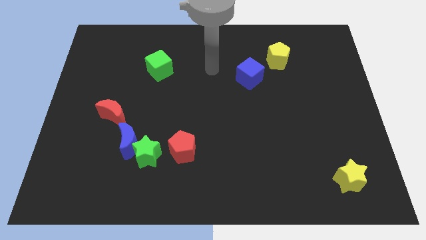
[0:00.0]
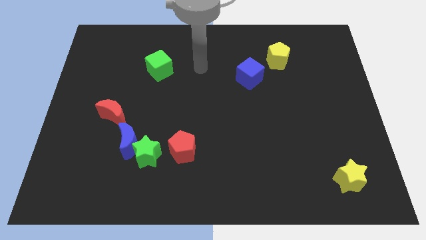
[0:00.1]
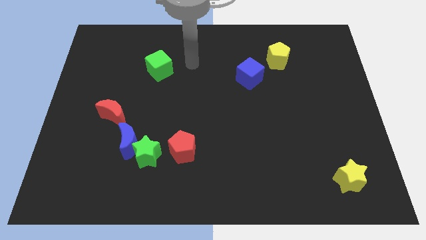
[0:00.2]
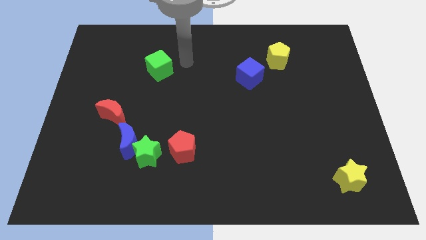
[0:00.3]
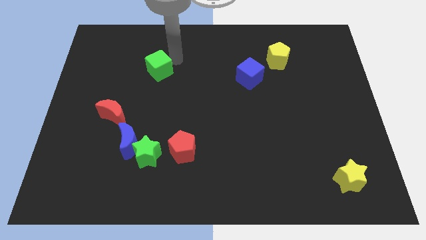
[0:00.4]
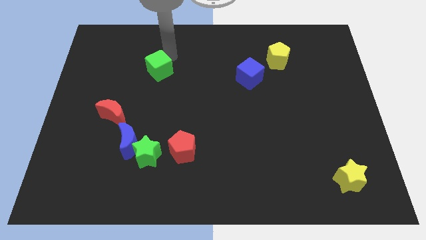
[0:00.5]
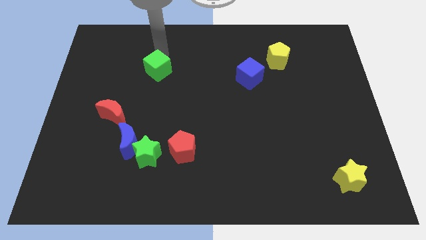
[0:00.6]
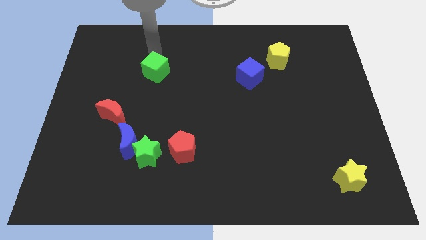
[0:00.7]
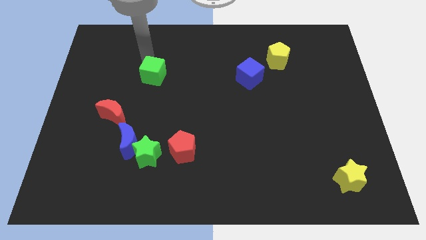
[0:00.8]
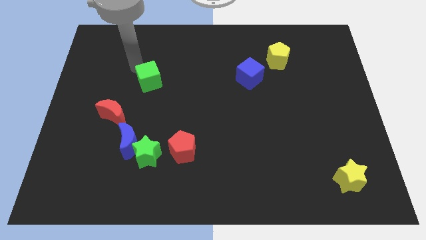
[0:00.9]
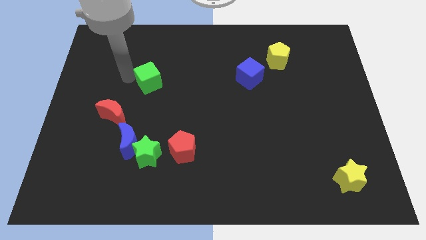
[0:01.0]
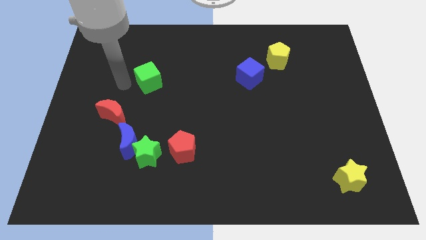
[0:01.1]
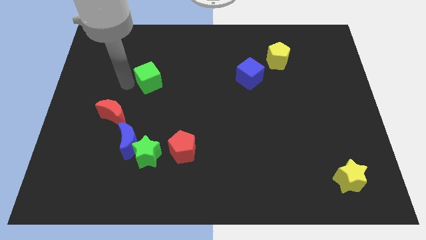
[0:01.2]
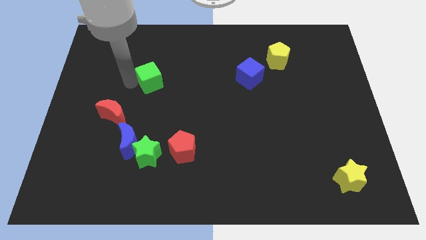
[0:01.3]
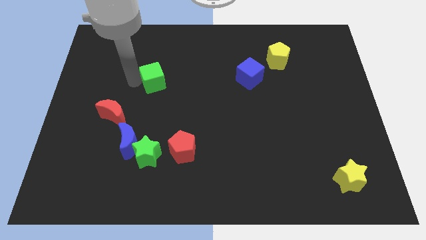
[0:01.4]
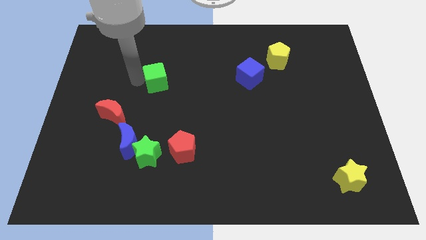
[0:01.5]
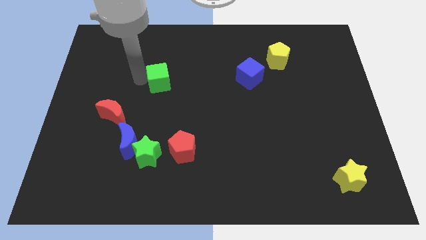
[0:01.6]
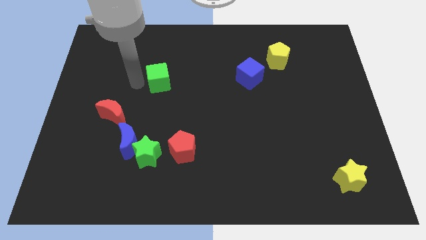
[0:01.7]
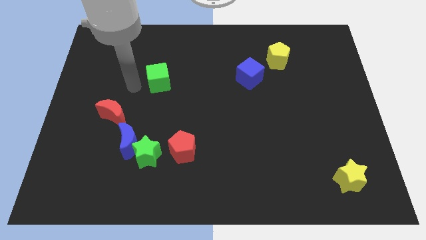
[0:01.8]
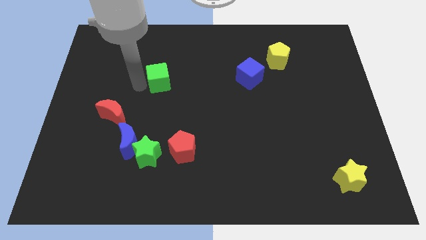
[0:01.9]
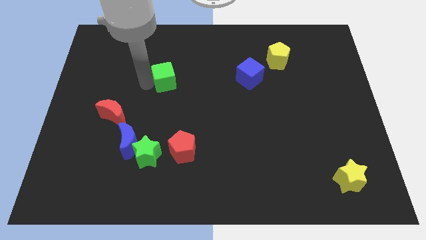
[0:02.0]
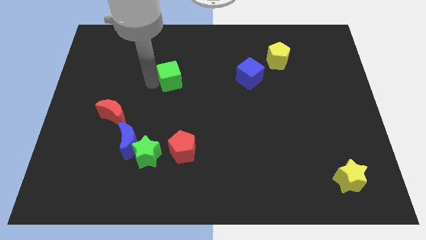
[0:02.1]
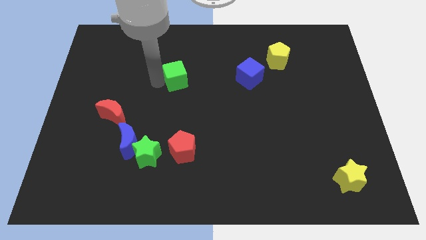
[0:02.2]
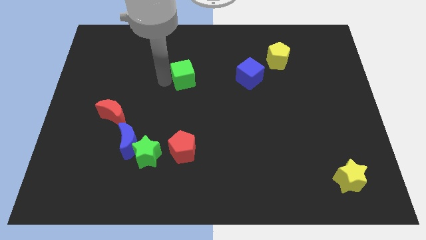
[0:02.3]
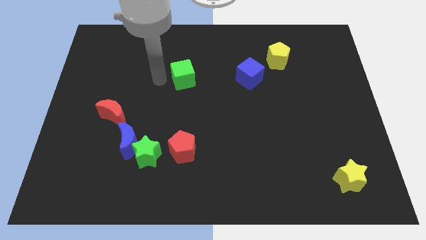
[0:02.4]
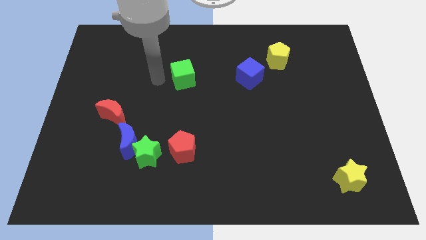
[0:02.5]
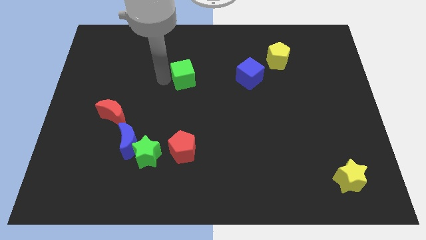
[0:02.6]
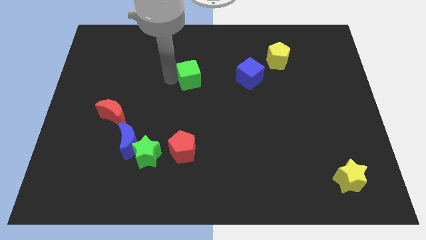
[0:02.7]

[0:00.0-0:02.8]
move the green cube a bit to the right

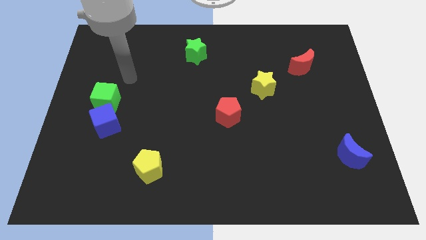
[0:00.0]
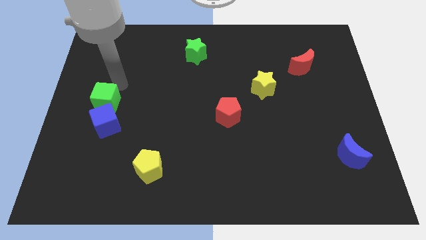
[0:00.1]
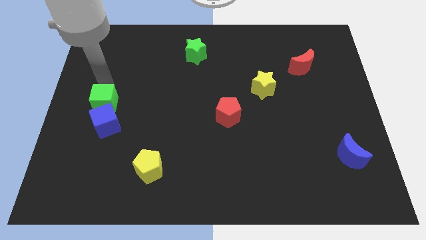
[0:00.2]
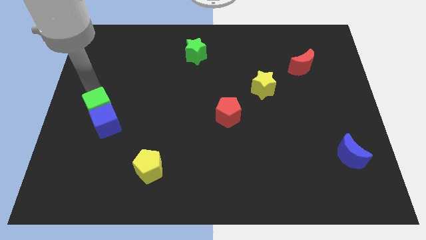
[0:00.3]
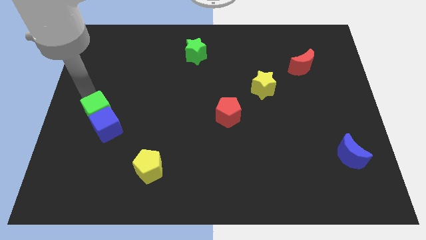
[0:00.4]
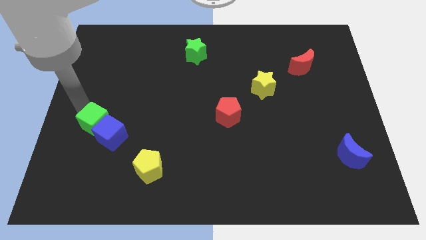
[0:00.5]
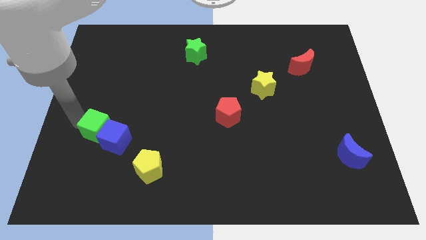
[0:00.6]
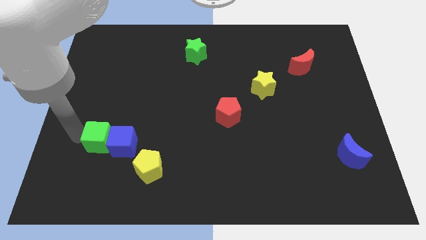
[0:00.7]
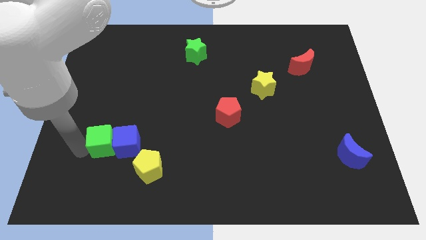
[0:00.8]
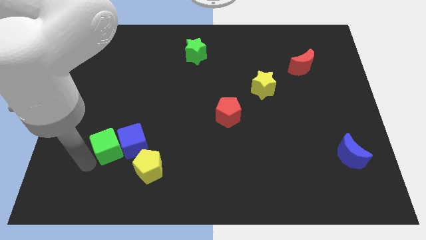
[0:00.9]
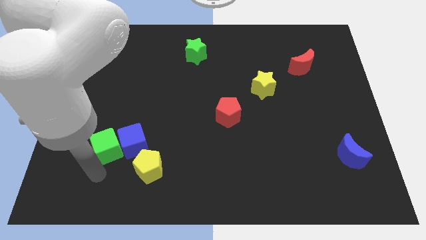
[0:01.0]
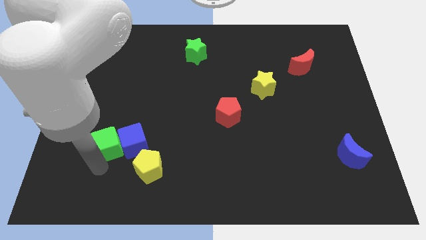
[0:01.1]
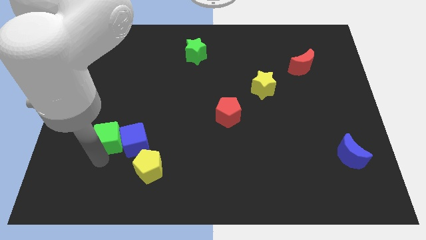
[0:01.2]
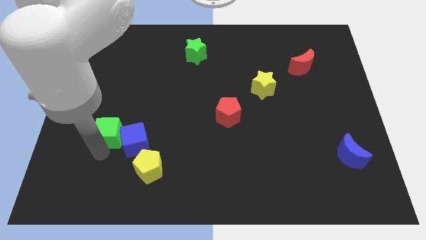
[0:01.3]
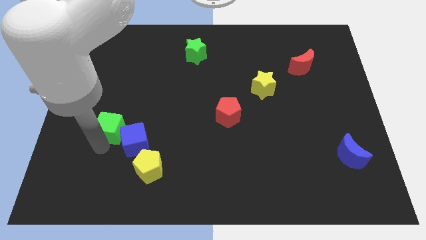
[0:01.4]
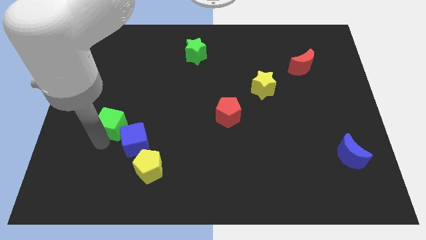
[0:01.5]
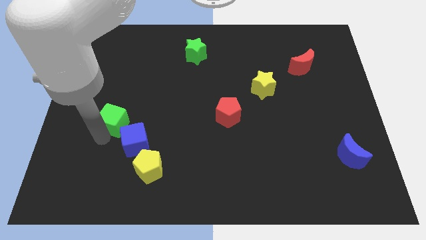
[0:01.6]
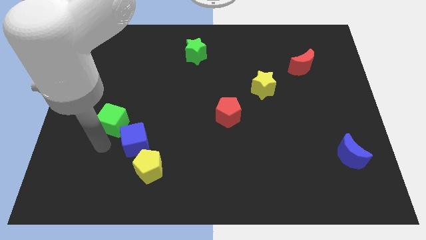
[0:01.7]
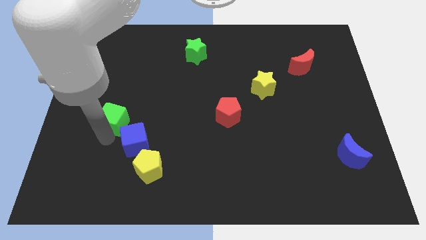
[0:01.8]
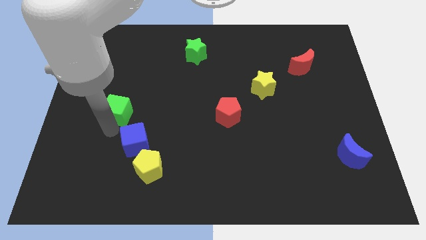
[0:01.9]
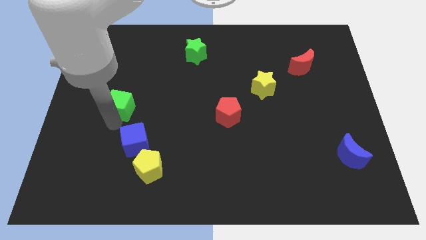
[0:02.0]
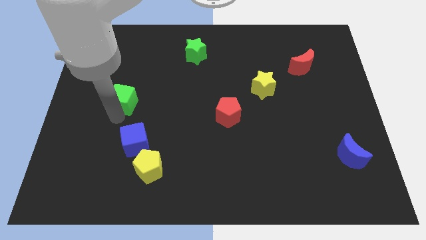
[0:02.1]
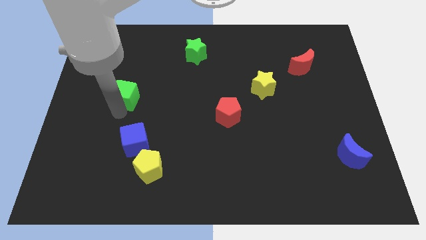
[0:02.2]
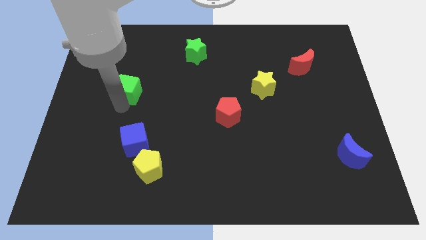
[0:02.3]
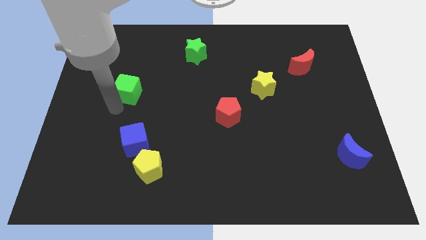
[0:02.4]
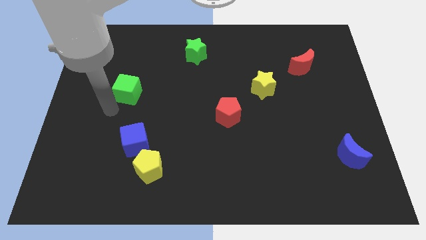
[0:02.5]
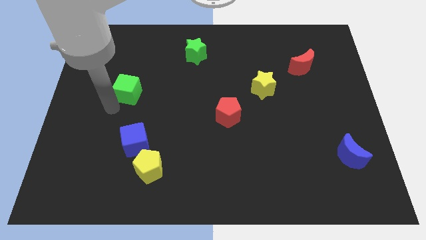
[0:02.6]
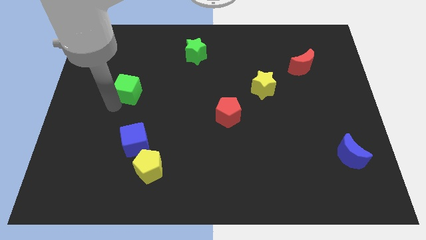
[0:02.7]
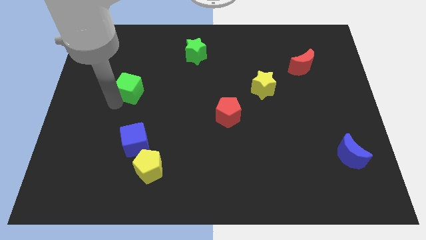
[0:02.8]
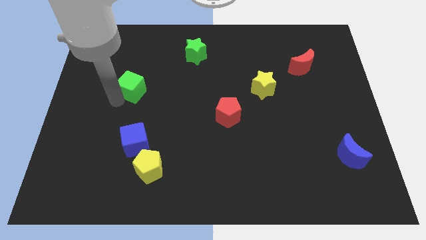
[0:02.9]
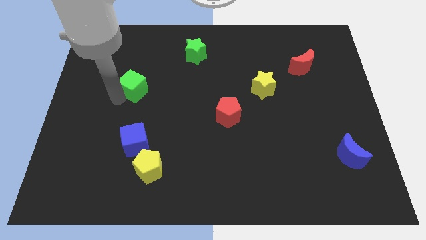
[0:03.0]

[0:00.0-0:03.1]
push the green cube up and to the right a bit

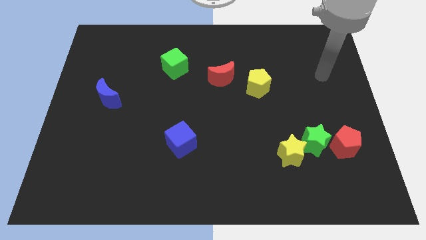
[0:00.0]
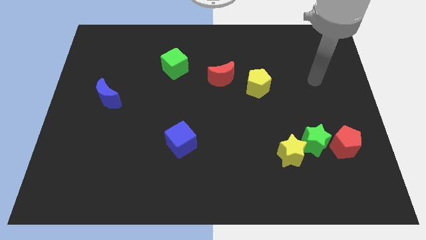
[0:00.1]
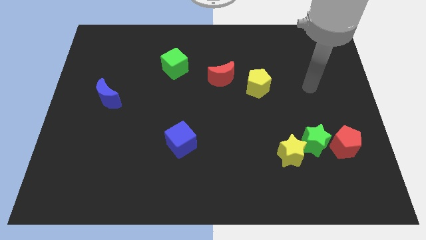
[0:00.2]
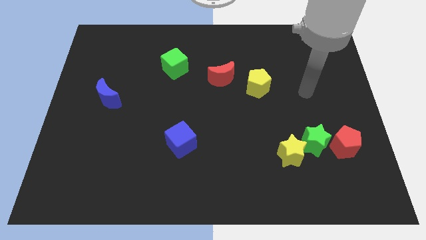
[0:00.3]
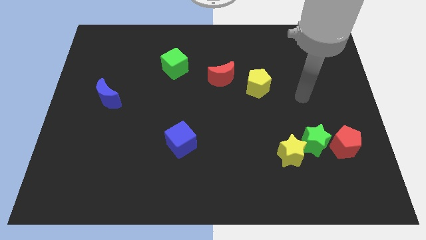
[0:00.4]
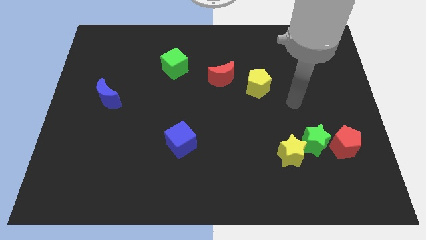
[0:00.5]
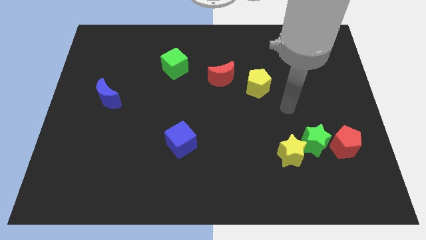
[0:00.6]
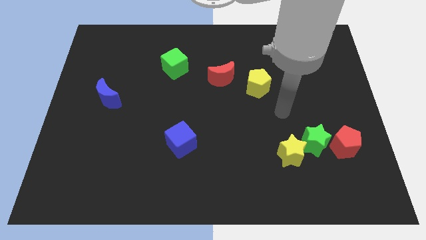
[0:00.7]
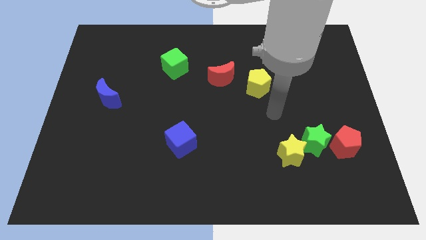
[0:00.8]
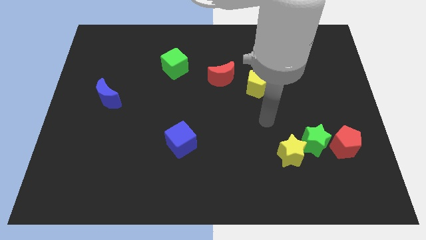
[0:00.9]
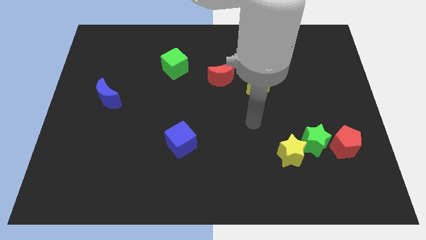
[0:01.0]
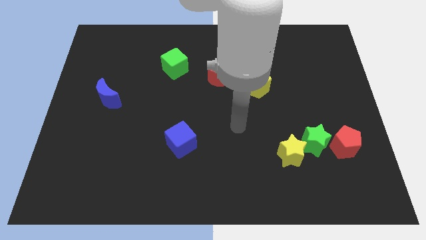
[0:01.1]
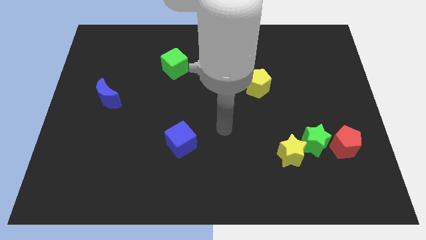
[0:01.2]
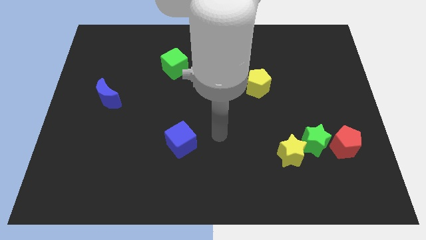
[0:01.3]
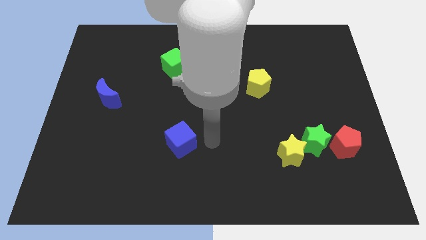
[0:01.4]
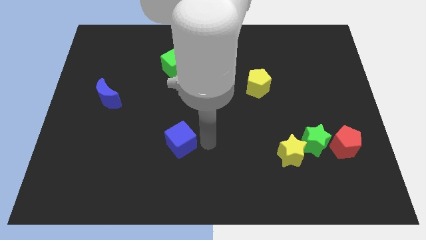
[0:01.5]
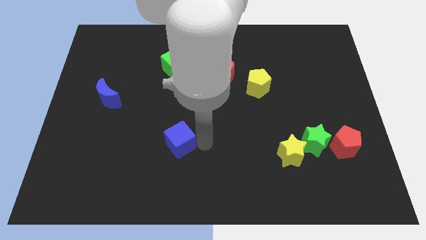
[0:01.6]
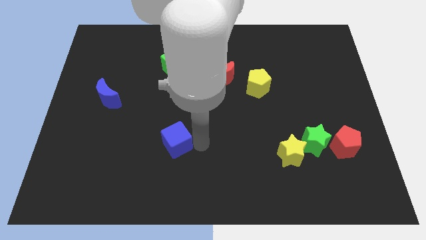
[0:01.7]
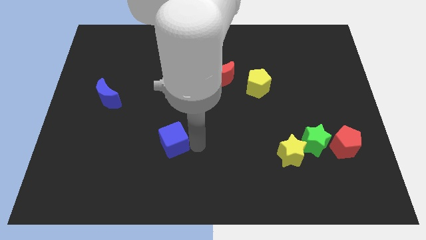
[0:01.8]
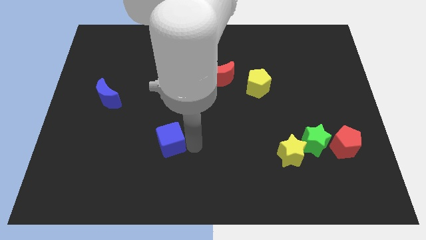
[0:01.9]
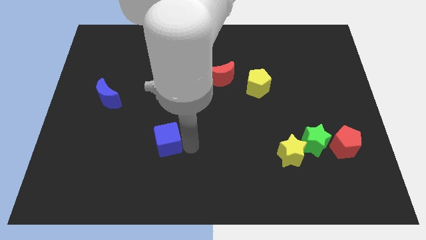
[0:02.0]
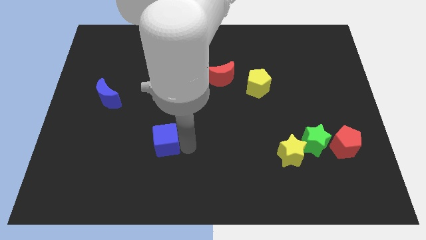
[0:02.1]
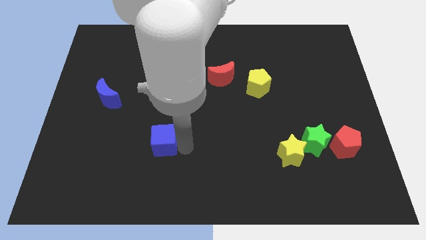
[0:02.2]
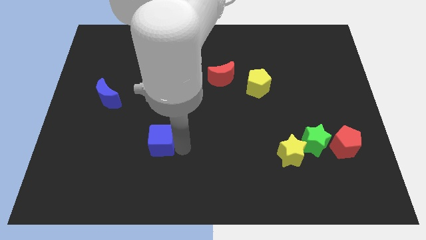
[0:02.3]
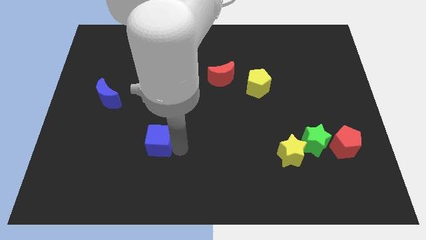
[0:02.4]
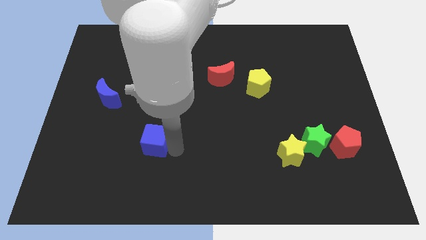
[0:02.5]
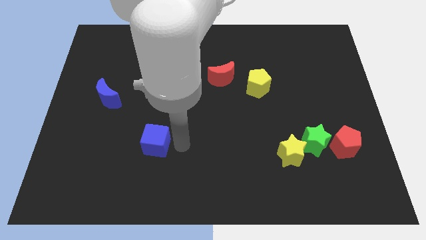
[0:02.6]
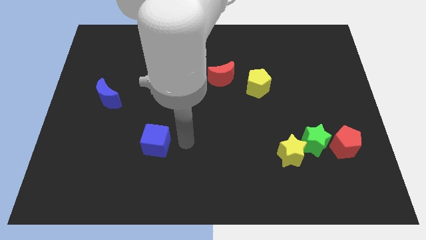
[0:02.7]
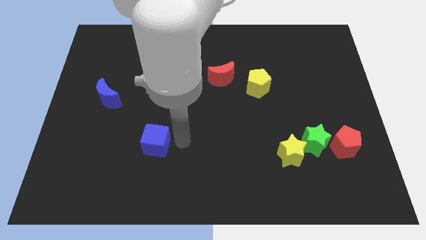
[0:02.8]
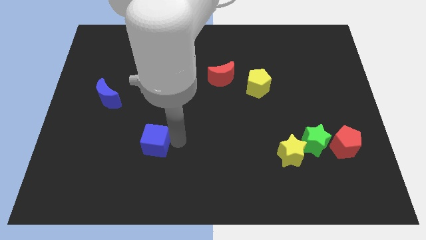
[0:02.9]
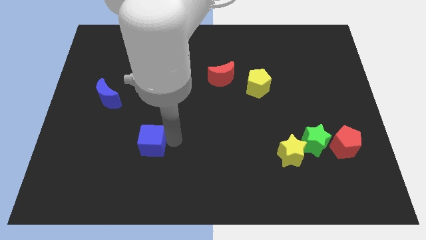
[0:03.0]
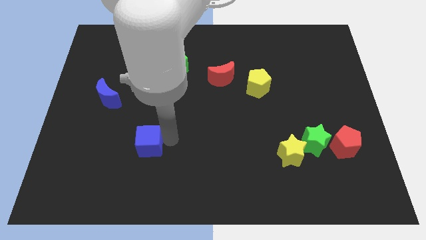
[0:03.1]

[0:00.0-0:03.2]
slide the blue cube slightly to the left
